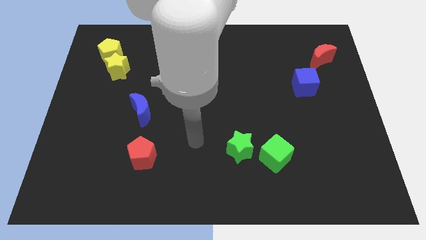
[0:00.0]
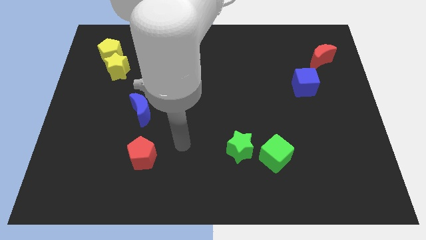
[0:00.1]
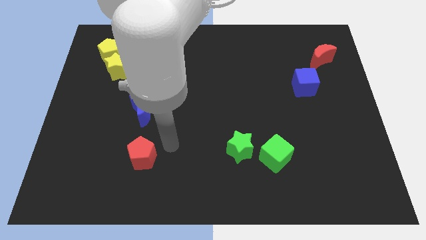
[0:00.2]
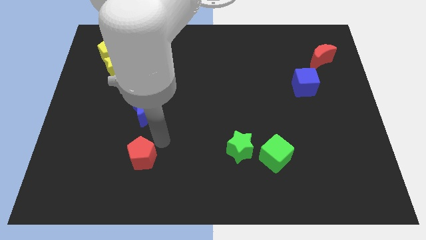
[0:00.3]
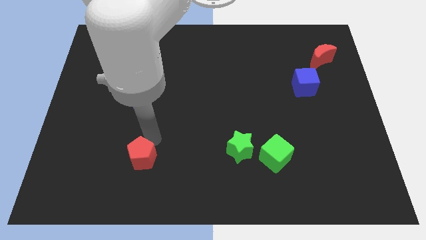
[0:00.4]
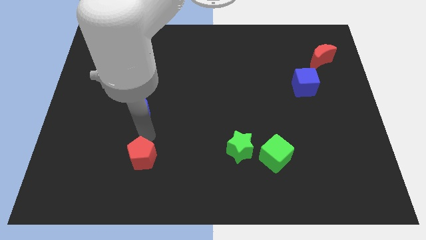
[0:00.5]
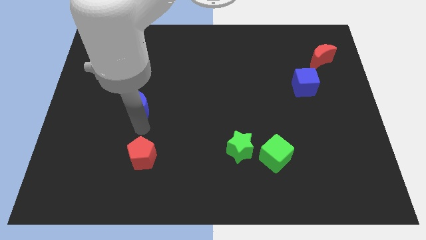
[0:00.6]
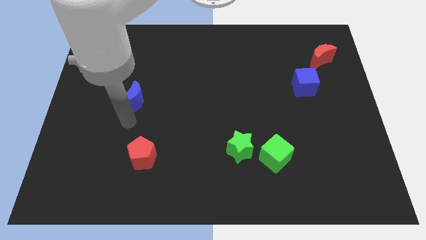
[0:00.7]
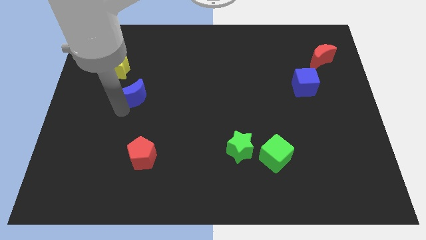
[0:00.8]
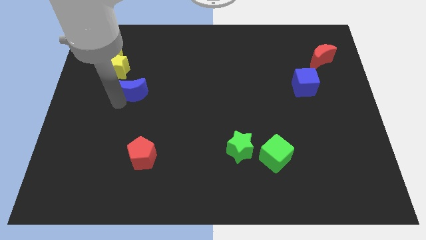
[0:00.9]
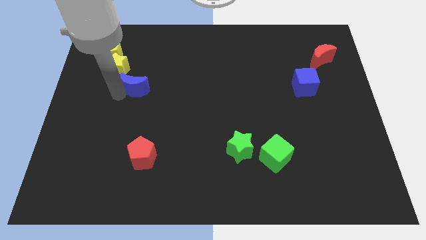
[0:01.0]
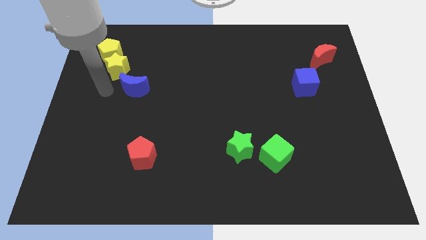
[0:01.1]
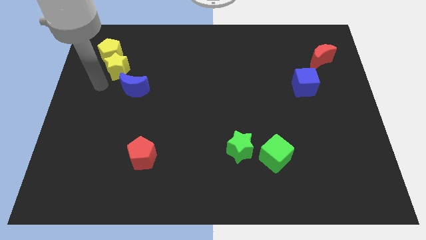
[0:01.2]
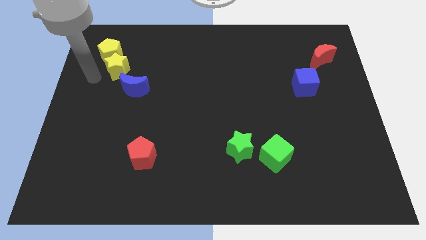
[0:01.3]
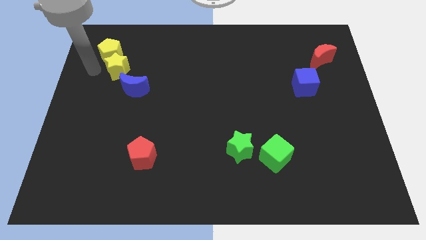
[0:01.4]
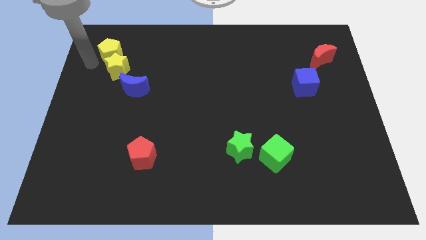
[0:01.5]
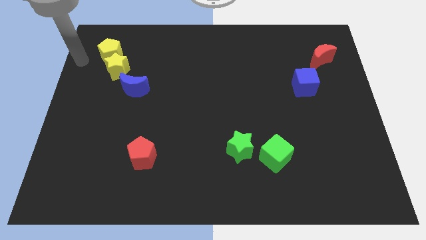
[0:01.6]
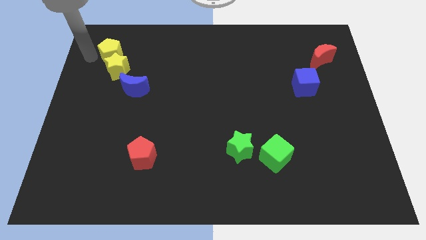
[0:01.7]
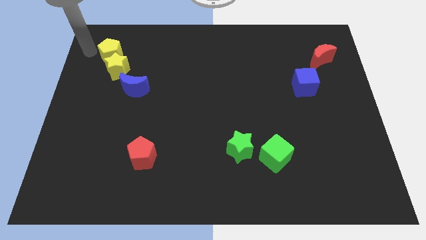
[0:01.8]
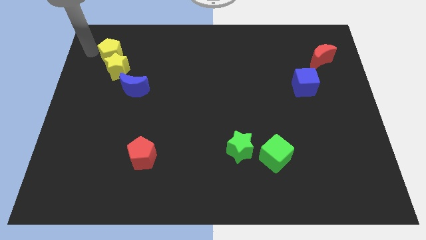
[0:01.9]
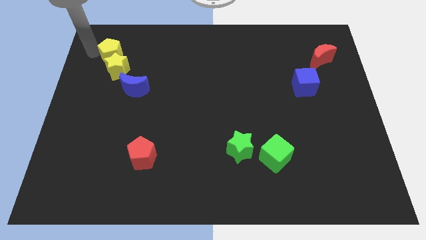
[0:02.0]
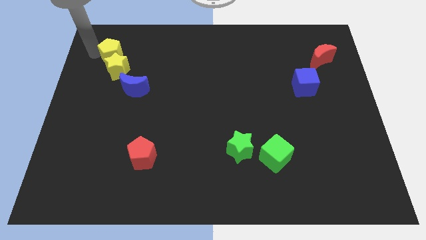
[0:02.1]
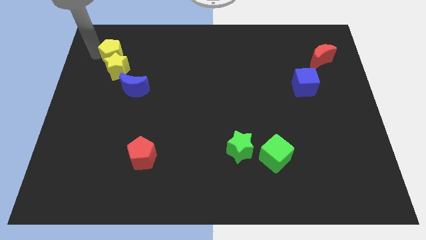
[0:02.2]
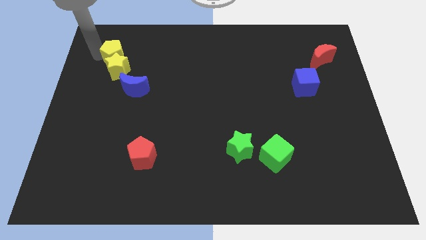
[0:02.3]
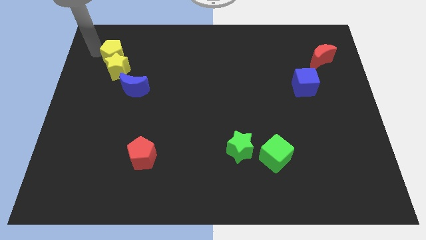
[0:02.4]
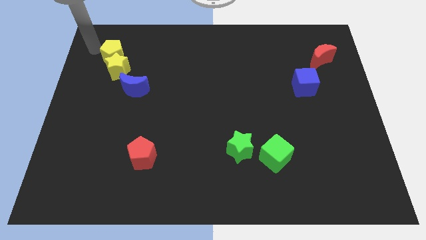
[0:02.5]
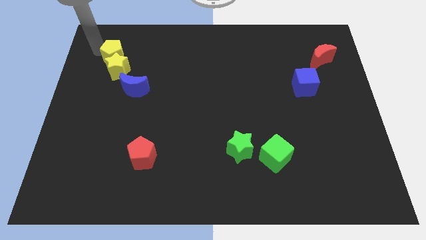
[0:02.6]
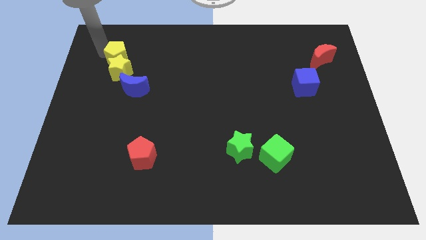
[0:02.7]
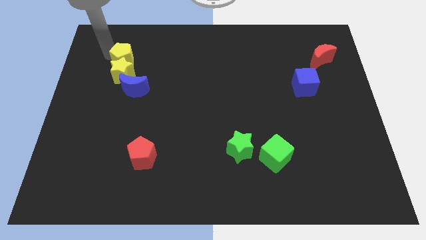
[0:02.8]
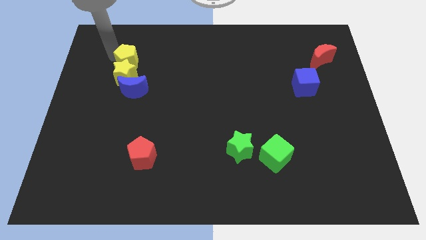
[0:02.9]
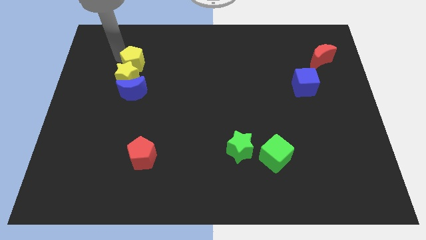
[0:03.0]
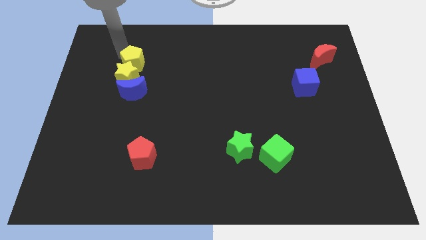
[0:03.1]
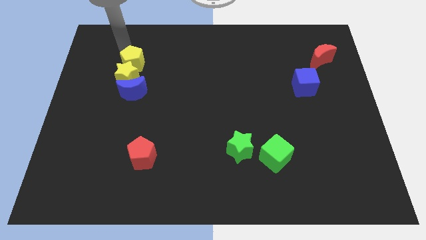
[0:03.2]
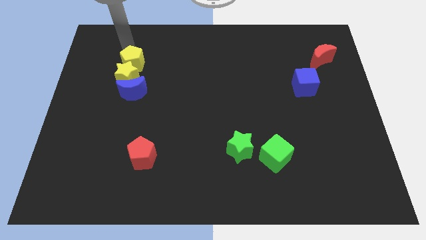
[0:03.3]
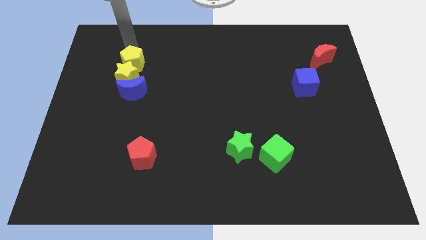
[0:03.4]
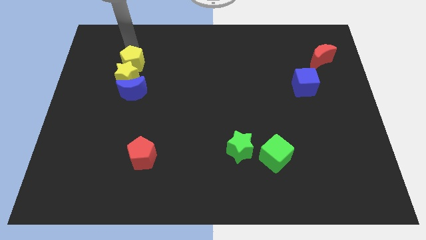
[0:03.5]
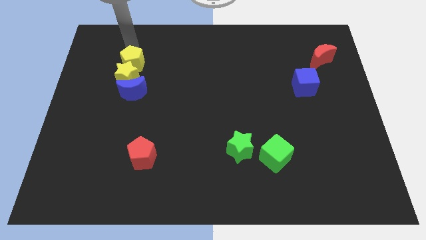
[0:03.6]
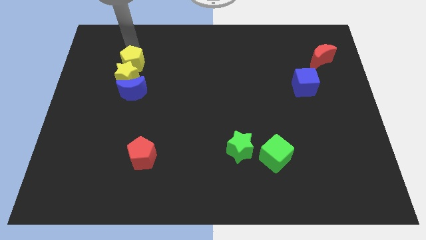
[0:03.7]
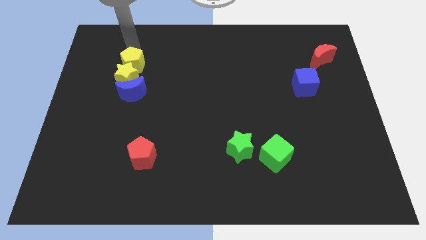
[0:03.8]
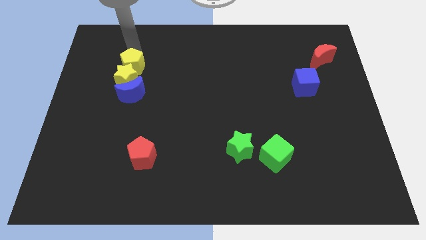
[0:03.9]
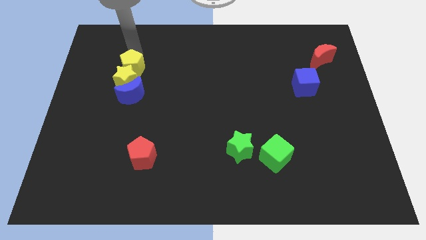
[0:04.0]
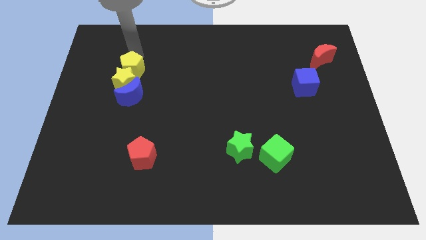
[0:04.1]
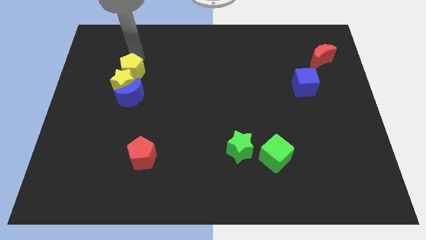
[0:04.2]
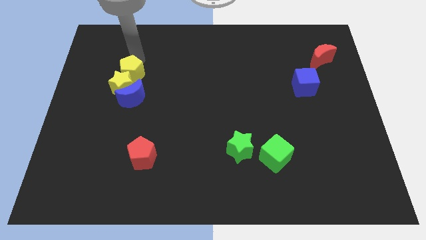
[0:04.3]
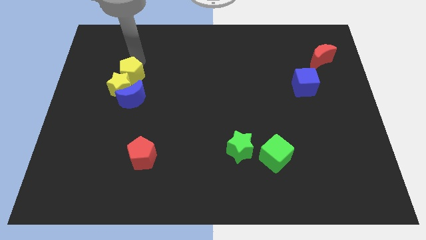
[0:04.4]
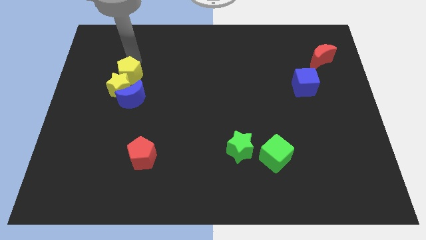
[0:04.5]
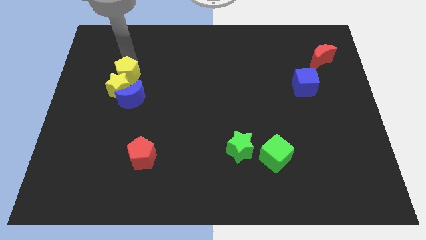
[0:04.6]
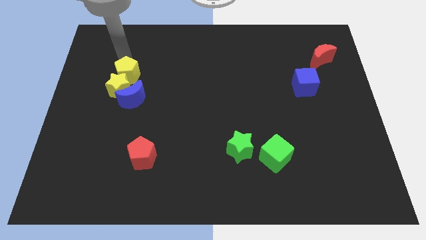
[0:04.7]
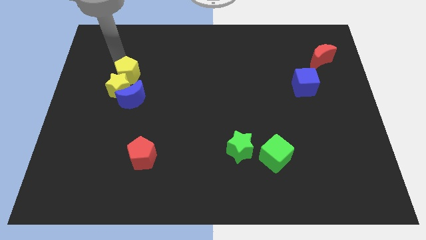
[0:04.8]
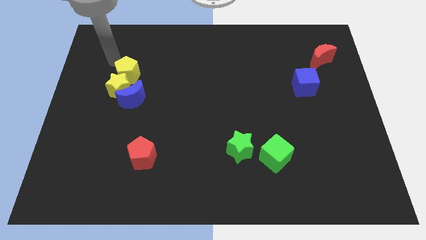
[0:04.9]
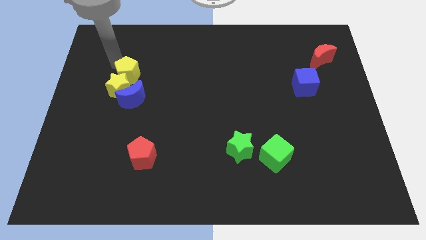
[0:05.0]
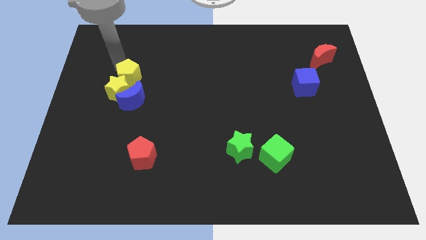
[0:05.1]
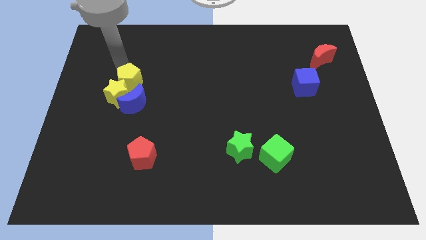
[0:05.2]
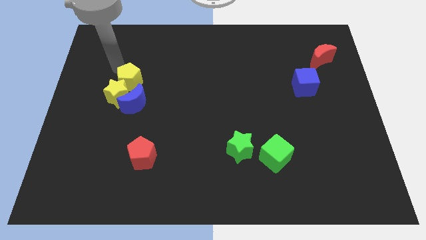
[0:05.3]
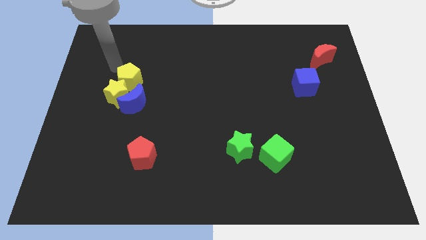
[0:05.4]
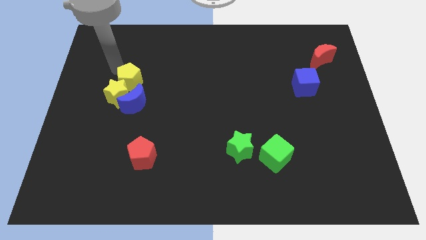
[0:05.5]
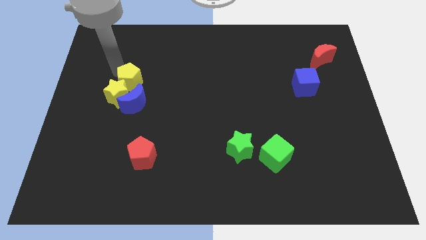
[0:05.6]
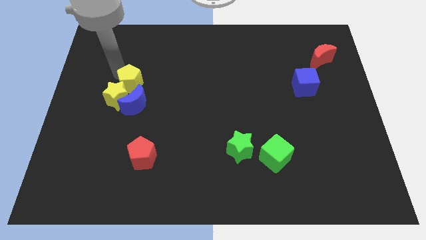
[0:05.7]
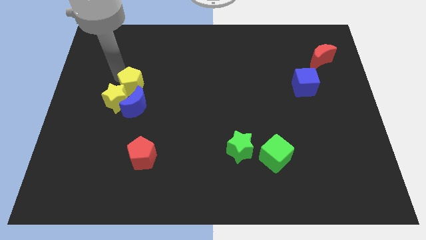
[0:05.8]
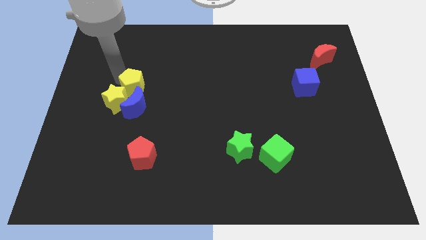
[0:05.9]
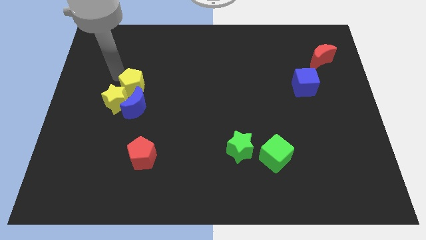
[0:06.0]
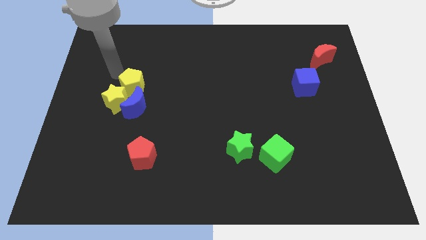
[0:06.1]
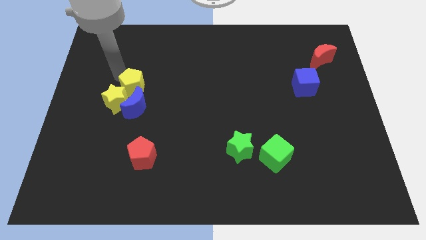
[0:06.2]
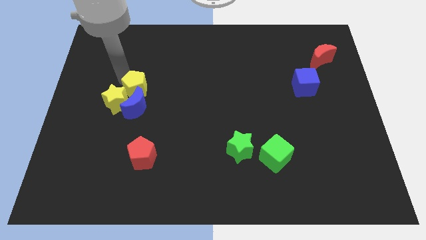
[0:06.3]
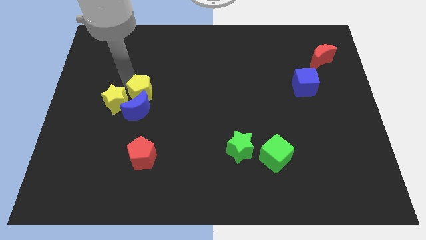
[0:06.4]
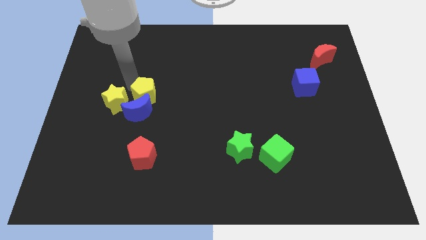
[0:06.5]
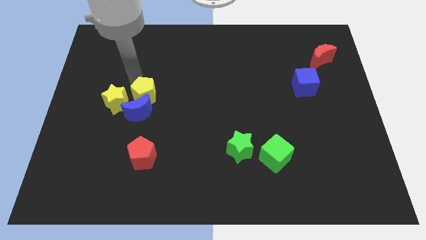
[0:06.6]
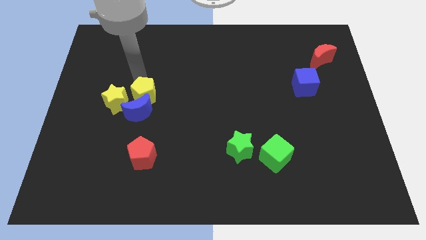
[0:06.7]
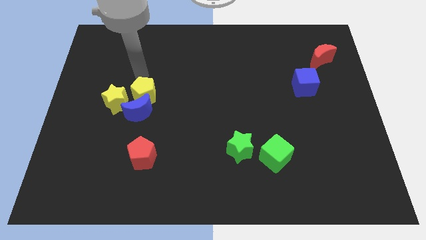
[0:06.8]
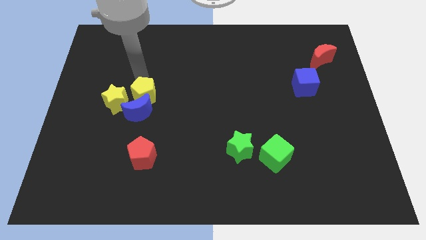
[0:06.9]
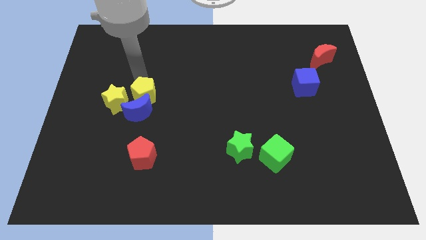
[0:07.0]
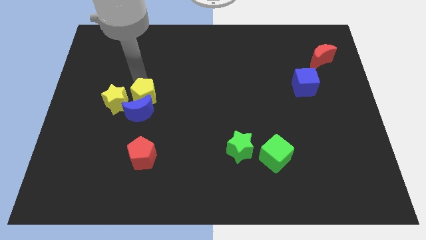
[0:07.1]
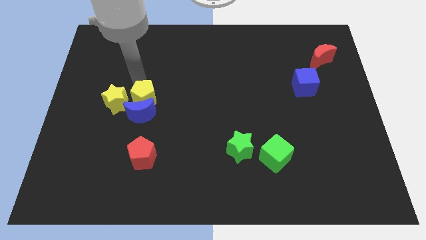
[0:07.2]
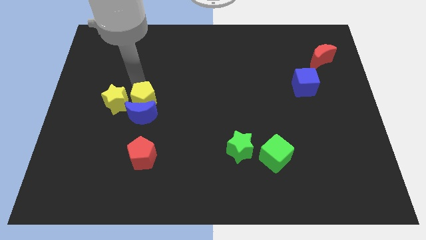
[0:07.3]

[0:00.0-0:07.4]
push the yellow pentagon to the top side of the red pentagon
